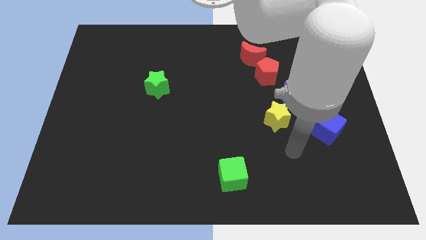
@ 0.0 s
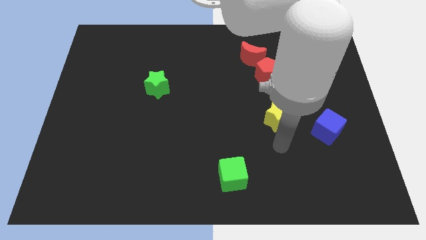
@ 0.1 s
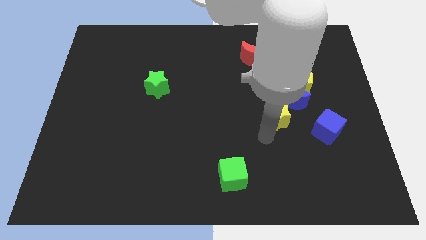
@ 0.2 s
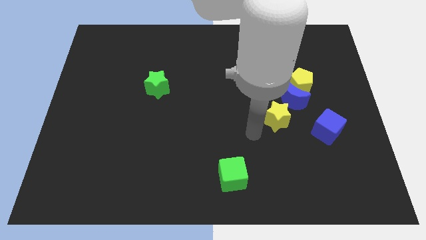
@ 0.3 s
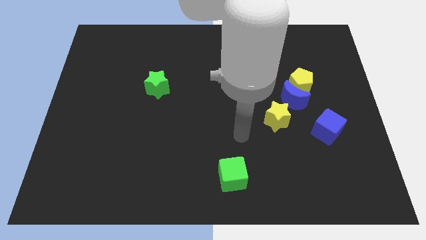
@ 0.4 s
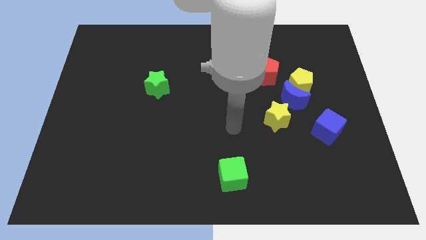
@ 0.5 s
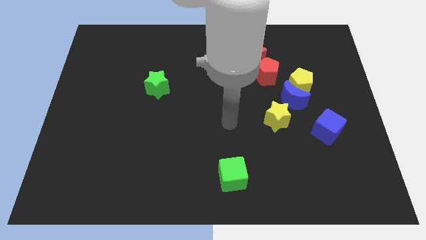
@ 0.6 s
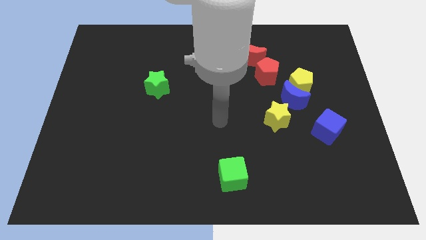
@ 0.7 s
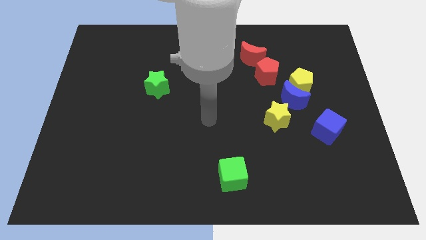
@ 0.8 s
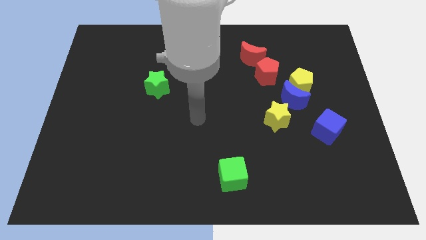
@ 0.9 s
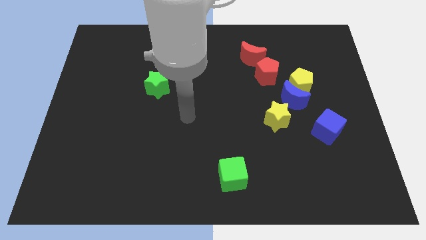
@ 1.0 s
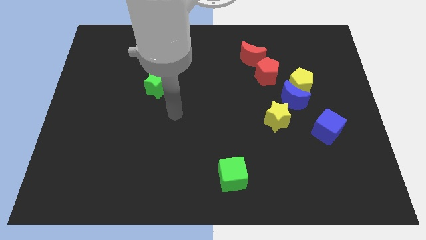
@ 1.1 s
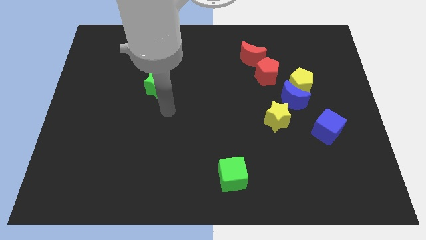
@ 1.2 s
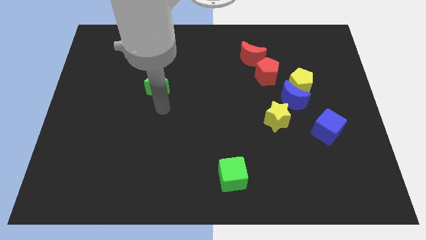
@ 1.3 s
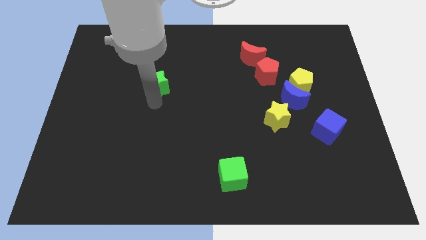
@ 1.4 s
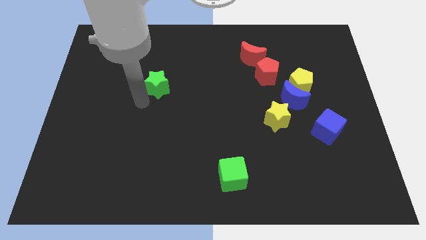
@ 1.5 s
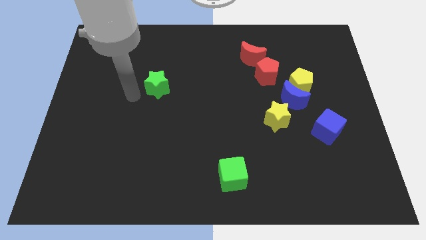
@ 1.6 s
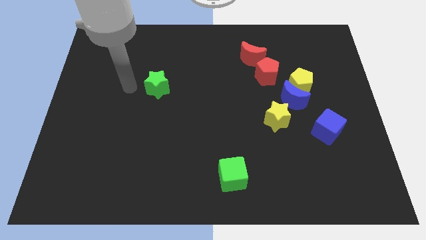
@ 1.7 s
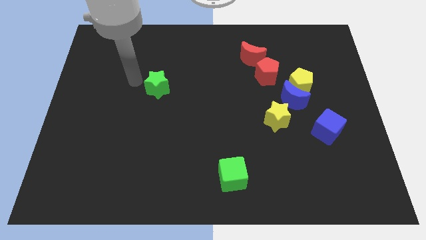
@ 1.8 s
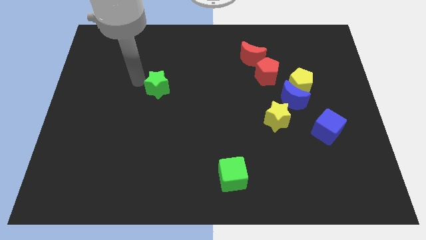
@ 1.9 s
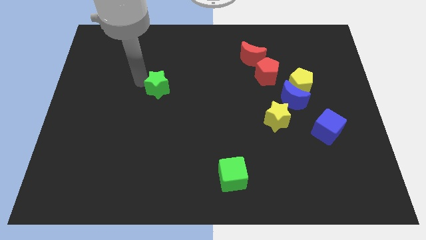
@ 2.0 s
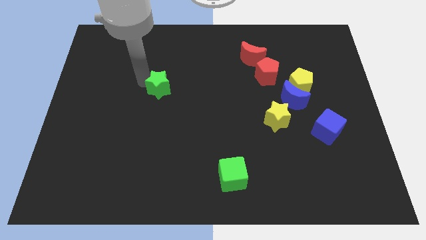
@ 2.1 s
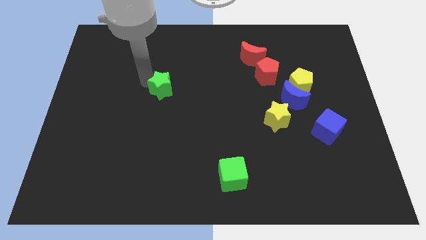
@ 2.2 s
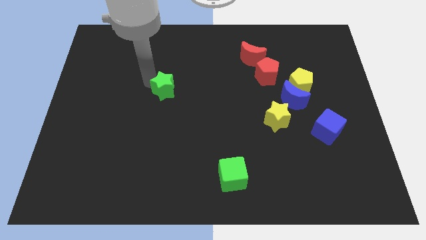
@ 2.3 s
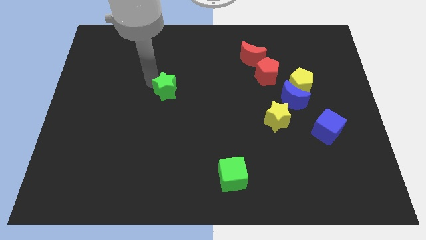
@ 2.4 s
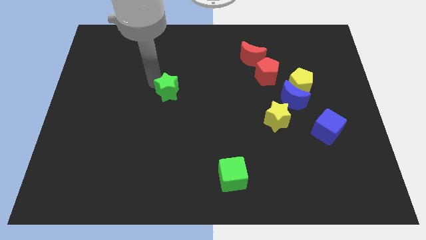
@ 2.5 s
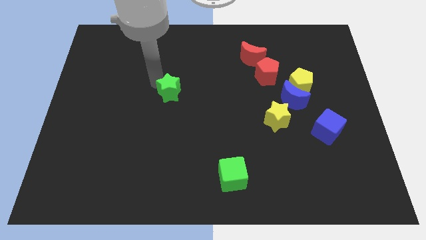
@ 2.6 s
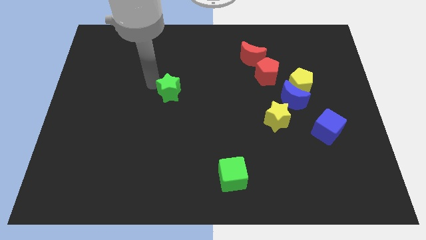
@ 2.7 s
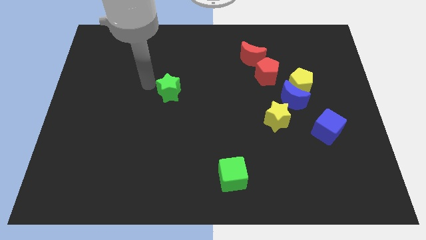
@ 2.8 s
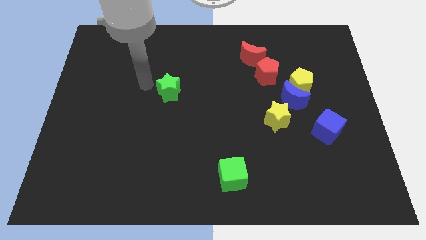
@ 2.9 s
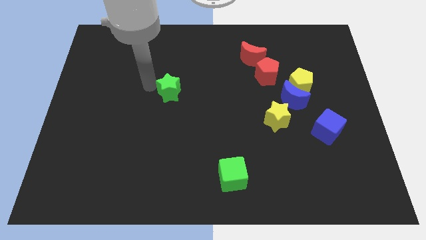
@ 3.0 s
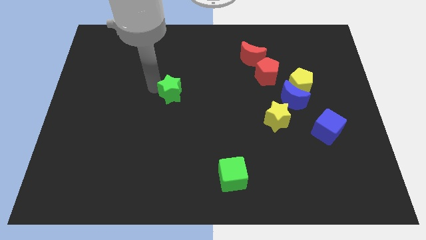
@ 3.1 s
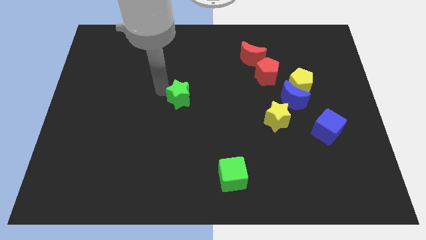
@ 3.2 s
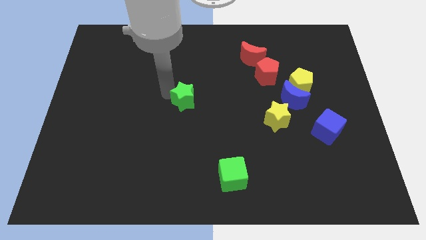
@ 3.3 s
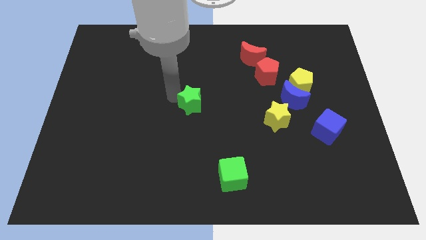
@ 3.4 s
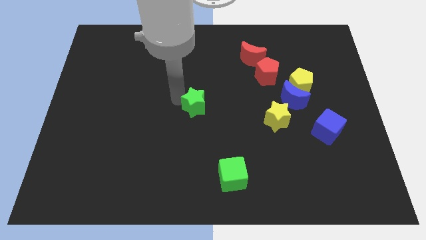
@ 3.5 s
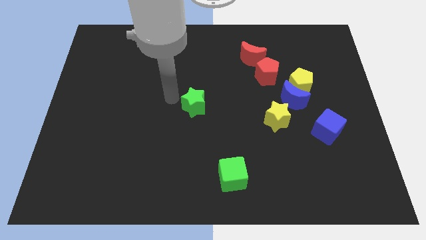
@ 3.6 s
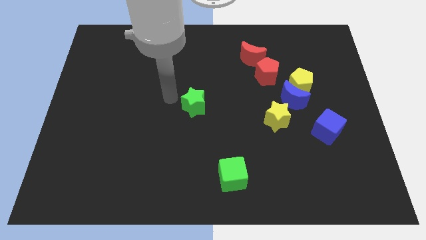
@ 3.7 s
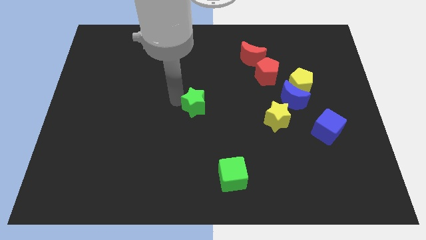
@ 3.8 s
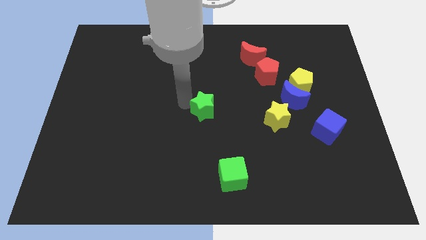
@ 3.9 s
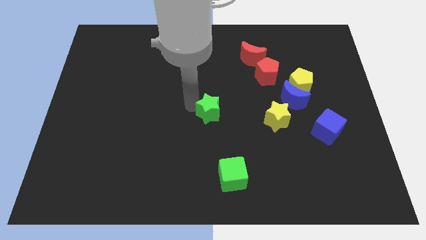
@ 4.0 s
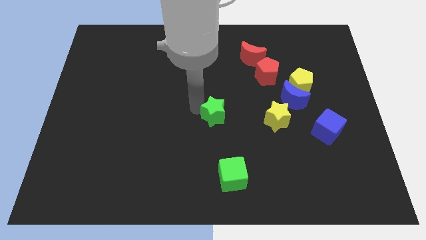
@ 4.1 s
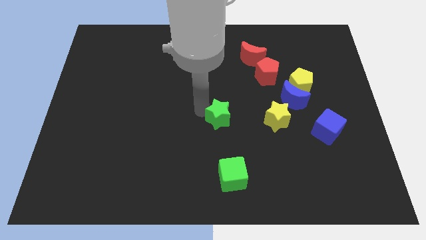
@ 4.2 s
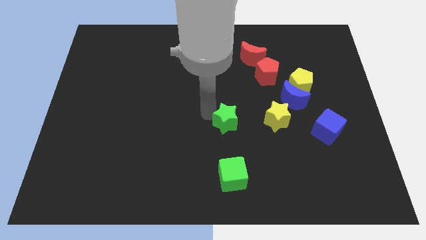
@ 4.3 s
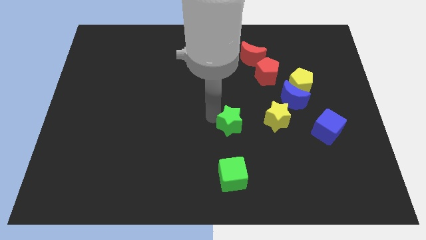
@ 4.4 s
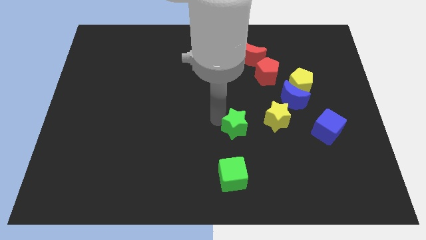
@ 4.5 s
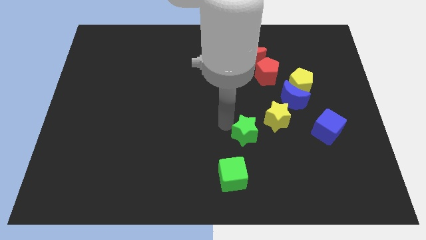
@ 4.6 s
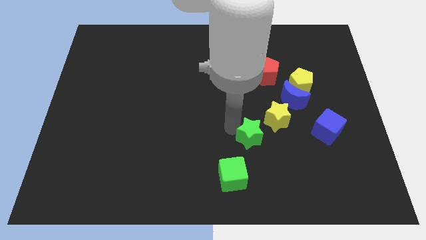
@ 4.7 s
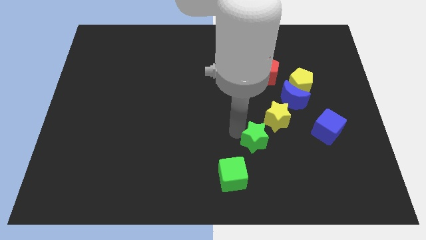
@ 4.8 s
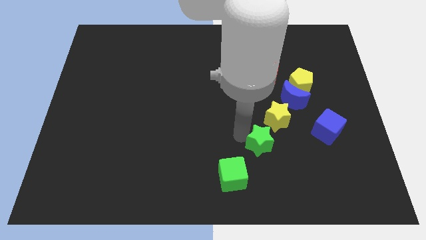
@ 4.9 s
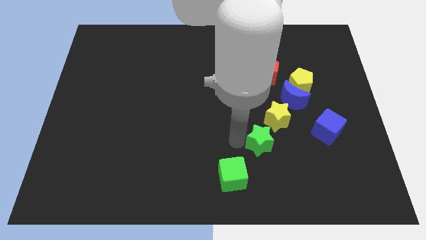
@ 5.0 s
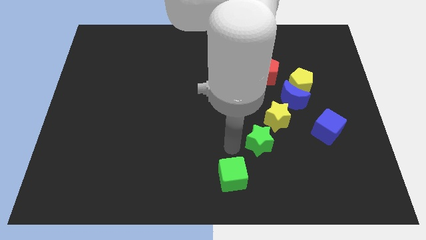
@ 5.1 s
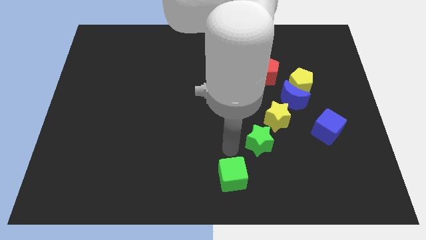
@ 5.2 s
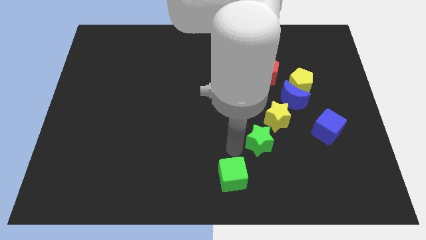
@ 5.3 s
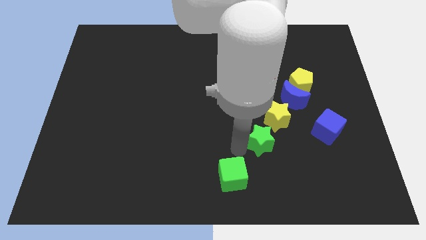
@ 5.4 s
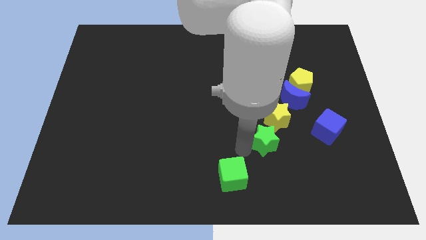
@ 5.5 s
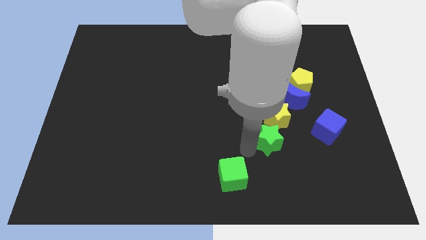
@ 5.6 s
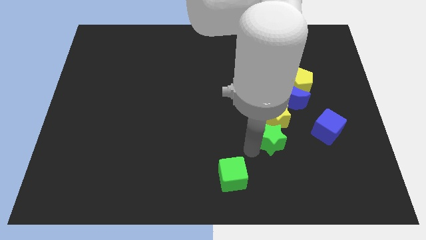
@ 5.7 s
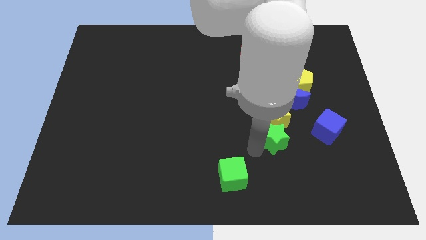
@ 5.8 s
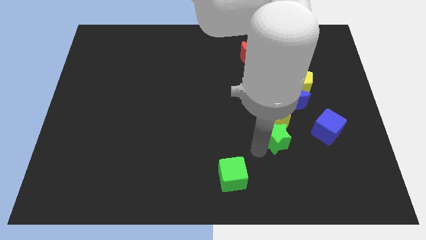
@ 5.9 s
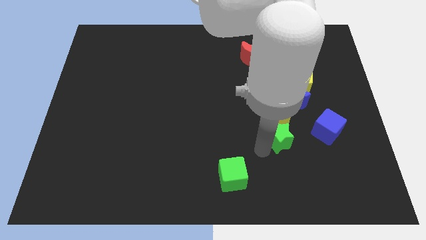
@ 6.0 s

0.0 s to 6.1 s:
put the green star below the blue moon

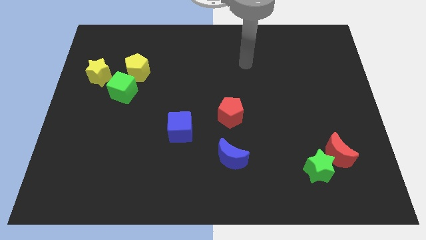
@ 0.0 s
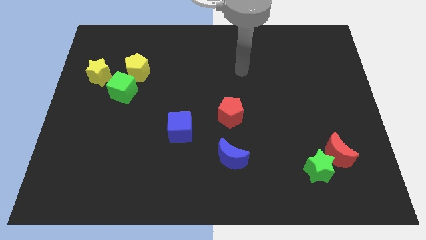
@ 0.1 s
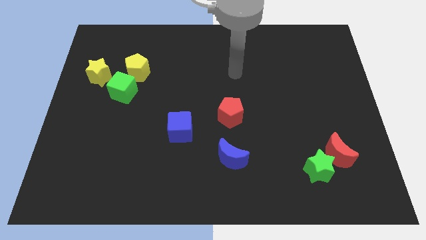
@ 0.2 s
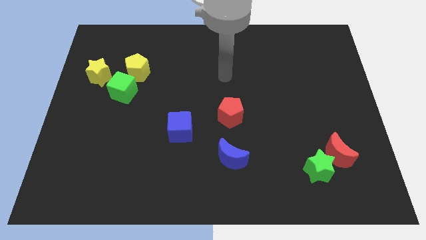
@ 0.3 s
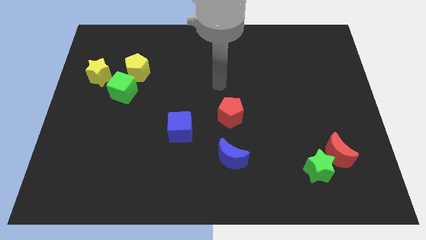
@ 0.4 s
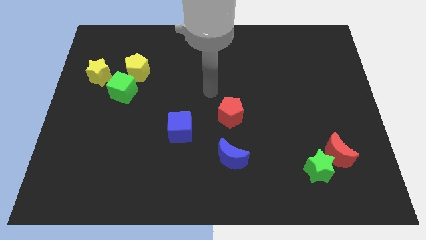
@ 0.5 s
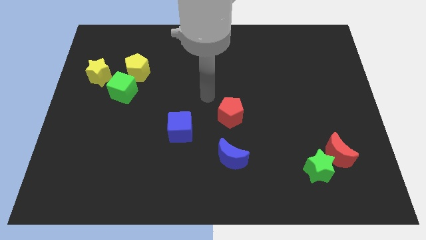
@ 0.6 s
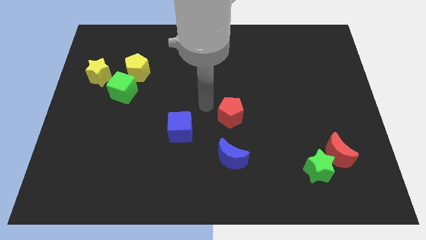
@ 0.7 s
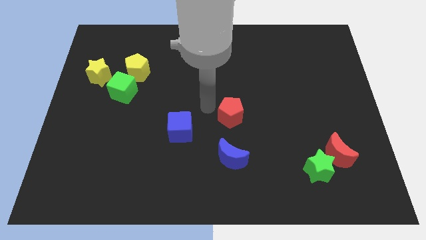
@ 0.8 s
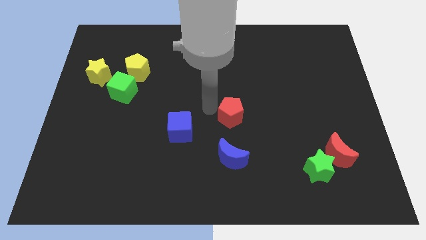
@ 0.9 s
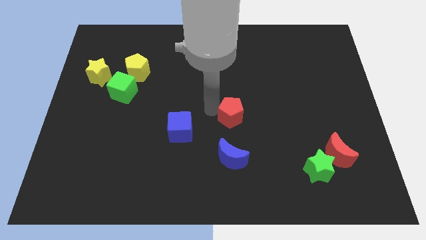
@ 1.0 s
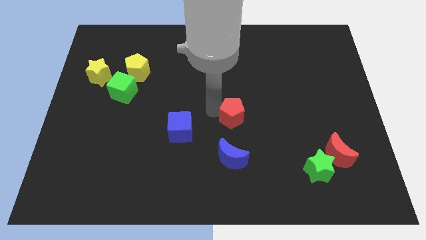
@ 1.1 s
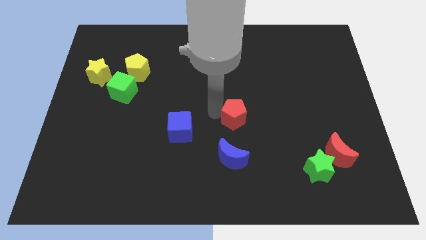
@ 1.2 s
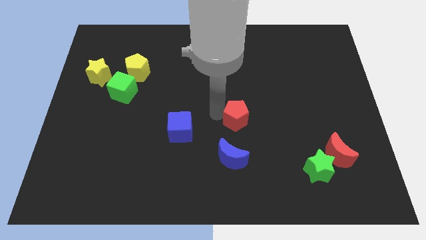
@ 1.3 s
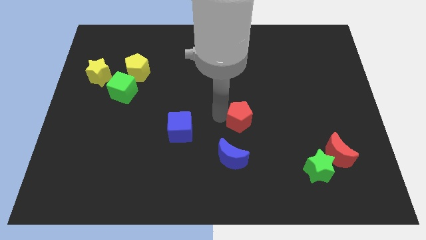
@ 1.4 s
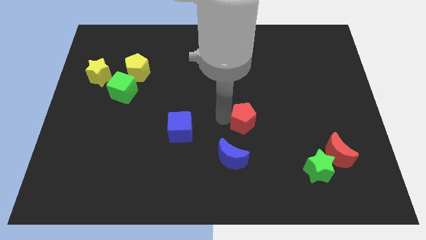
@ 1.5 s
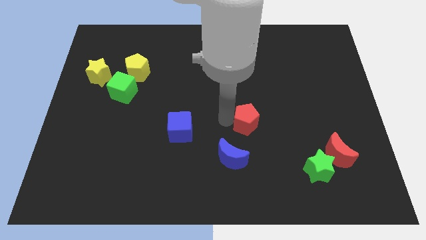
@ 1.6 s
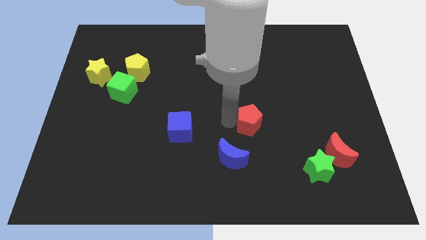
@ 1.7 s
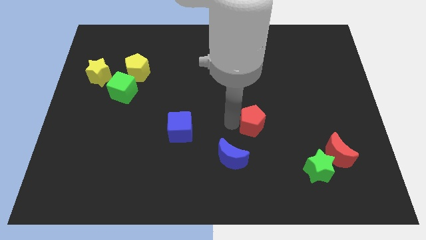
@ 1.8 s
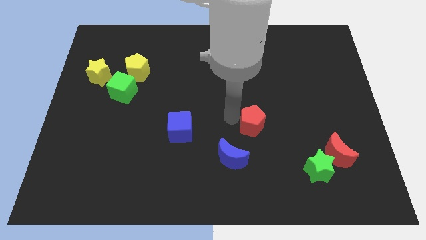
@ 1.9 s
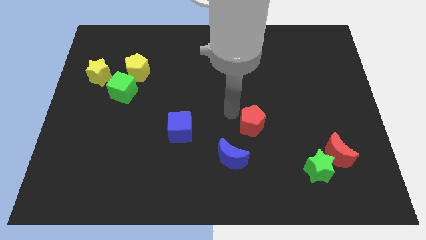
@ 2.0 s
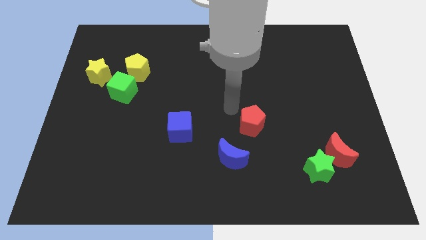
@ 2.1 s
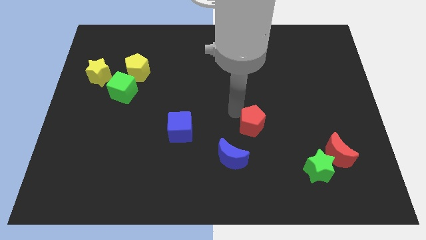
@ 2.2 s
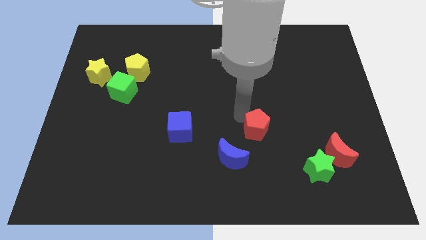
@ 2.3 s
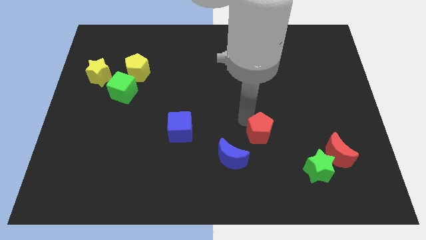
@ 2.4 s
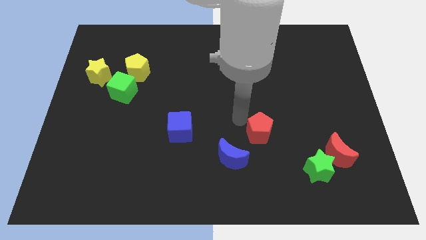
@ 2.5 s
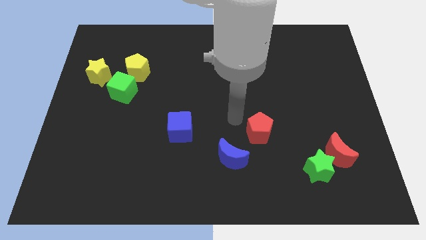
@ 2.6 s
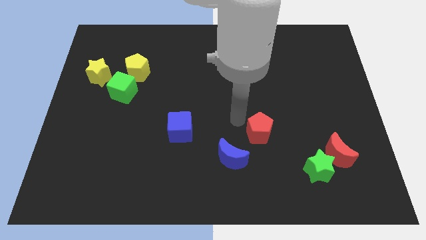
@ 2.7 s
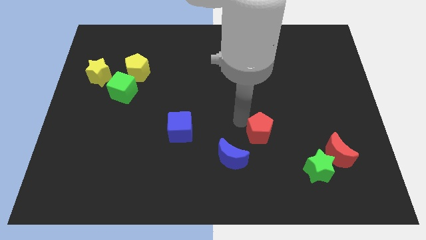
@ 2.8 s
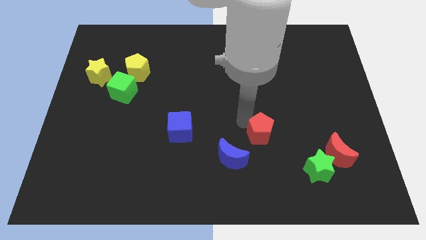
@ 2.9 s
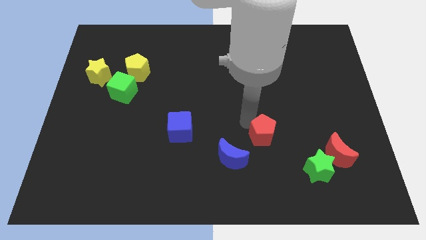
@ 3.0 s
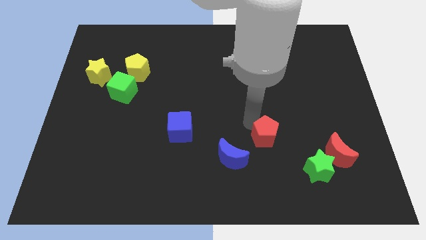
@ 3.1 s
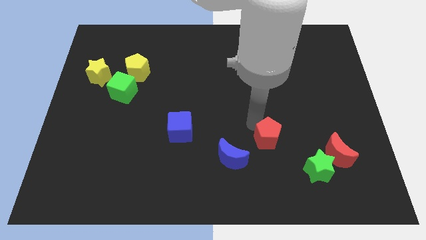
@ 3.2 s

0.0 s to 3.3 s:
move the red pentagon diagonally up and to the left of the green star
